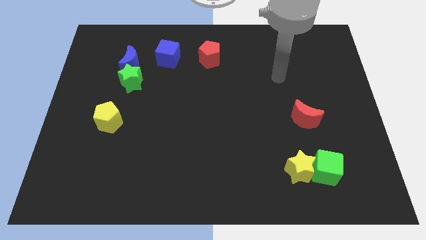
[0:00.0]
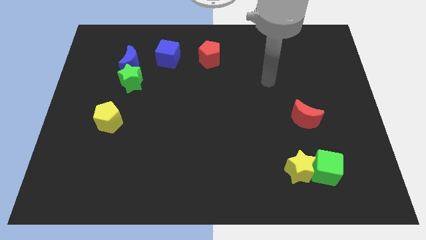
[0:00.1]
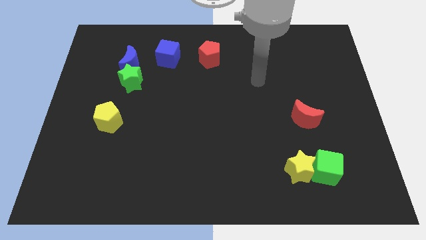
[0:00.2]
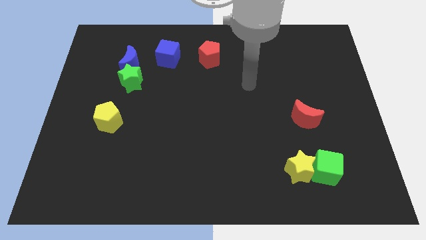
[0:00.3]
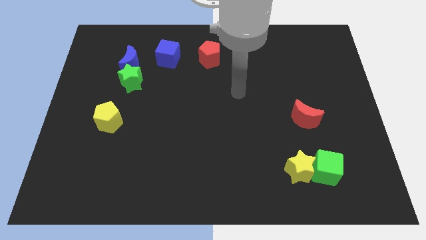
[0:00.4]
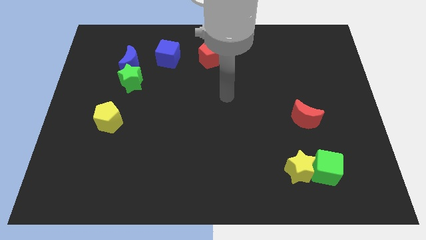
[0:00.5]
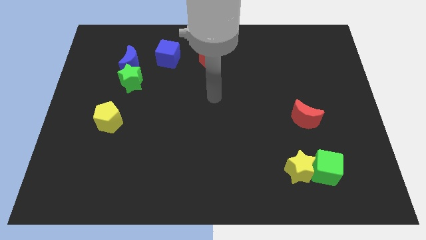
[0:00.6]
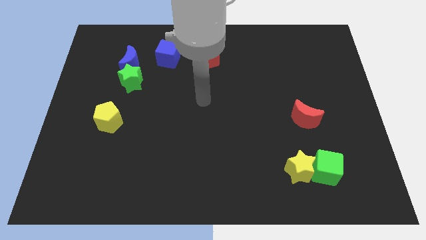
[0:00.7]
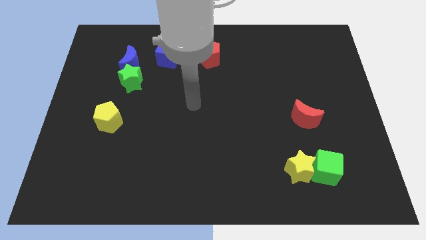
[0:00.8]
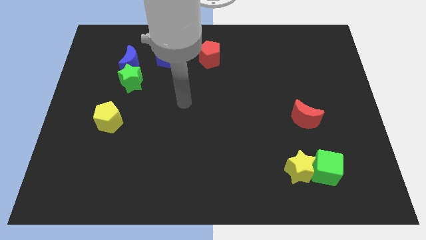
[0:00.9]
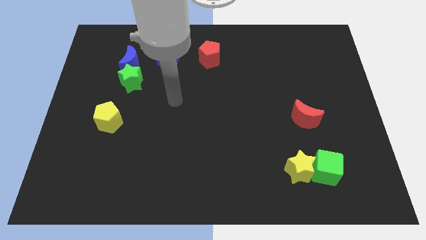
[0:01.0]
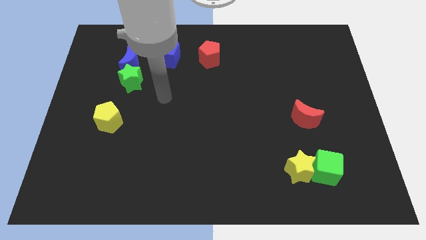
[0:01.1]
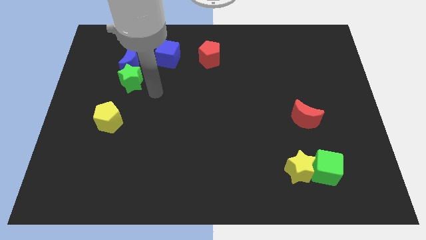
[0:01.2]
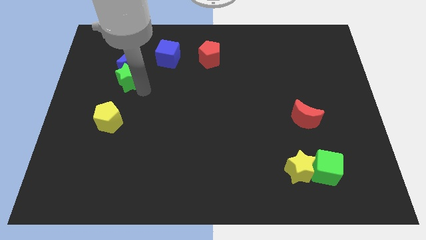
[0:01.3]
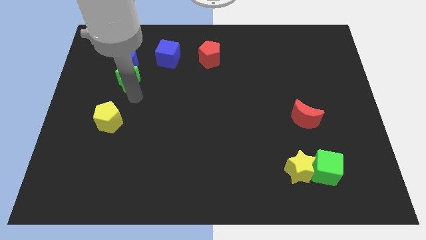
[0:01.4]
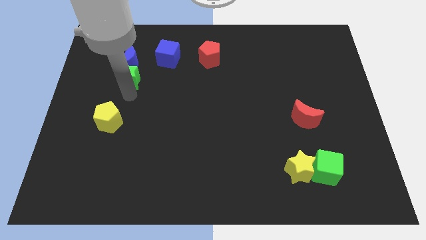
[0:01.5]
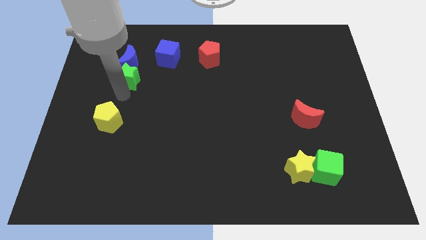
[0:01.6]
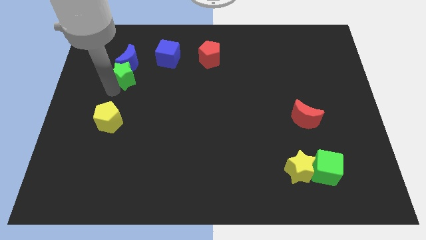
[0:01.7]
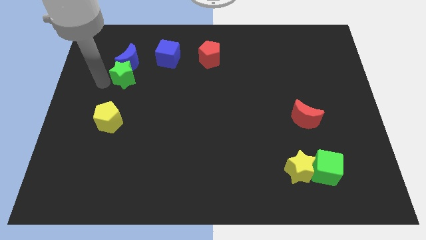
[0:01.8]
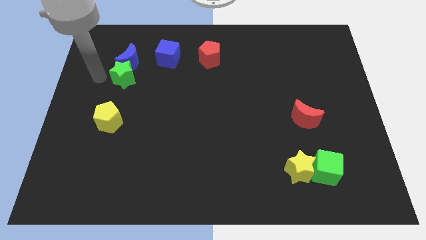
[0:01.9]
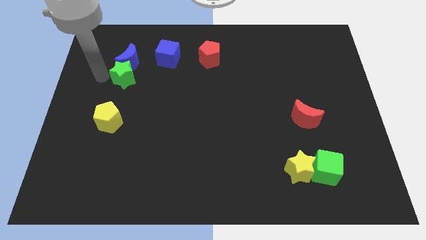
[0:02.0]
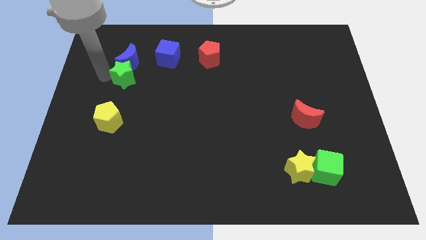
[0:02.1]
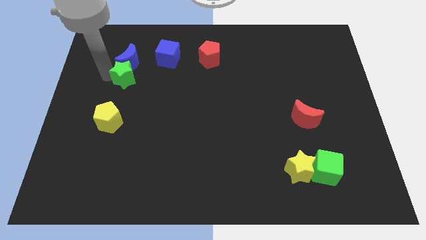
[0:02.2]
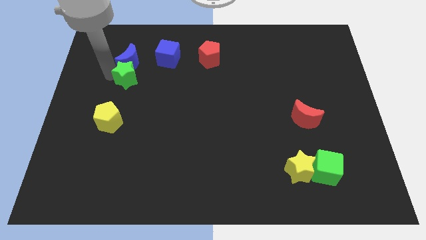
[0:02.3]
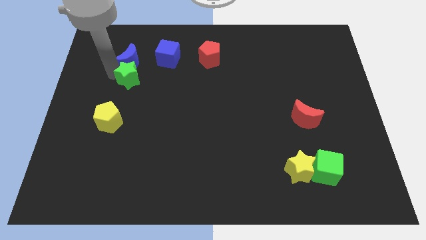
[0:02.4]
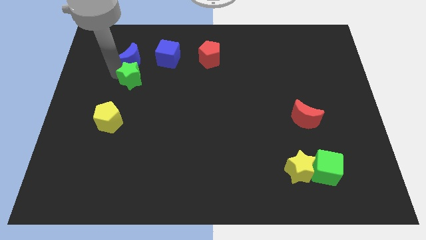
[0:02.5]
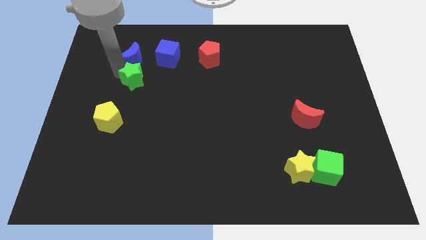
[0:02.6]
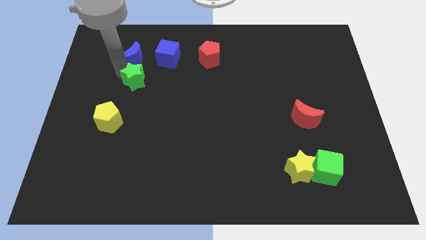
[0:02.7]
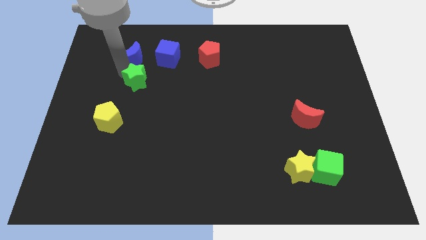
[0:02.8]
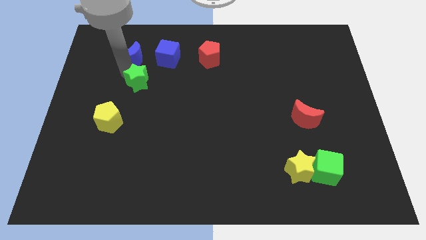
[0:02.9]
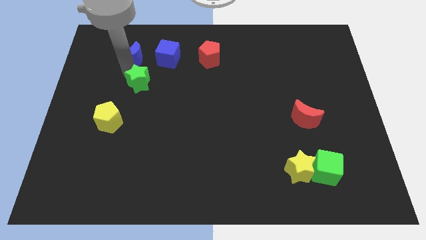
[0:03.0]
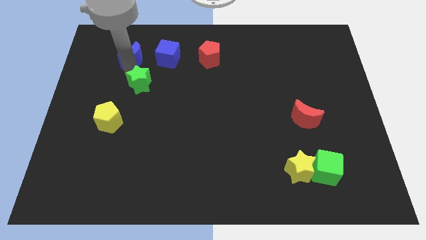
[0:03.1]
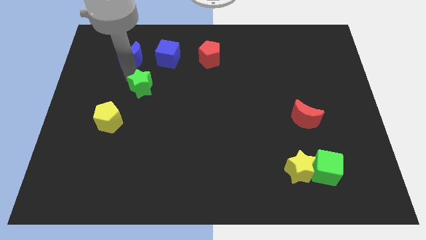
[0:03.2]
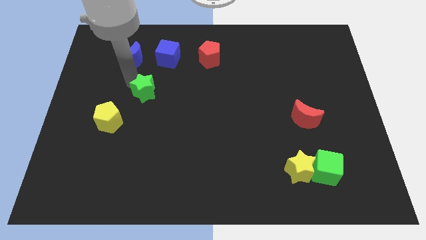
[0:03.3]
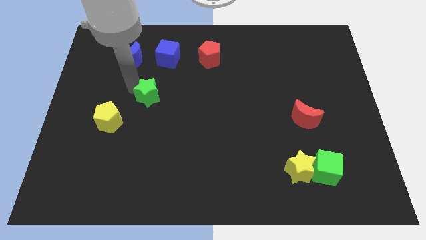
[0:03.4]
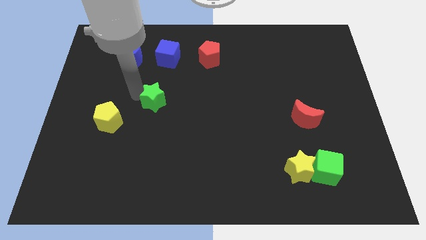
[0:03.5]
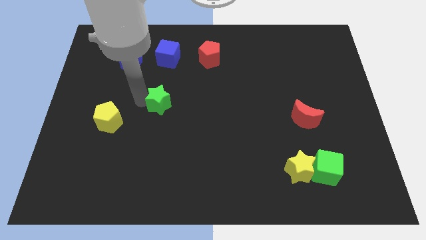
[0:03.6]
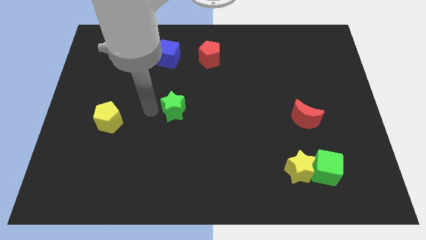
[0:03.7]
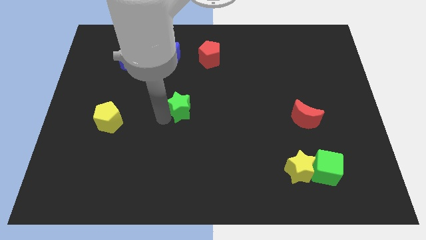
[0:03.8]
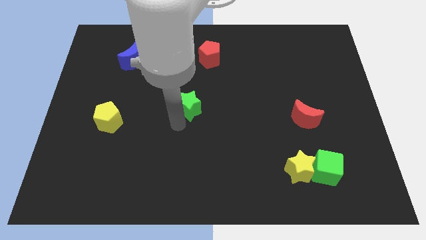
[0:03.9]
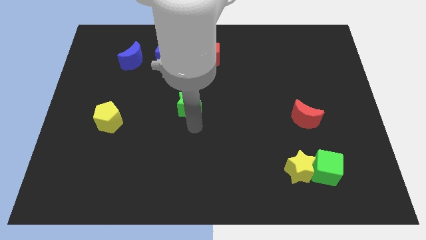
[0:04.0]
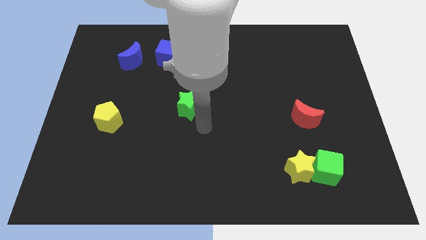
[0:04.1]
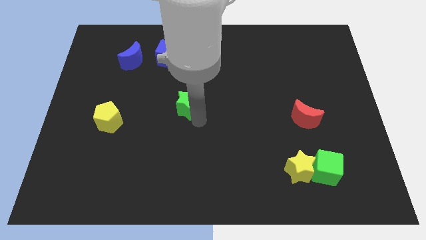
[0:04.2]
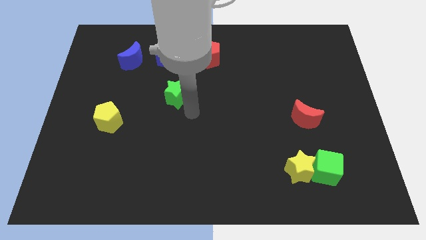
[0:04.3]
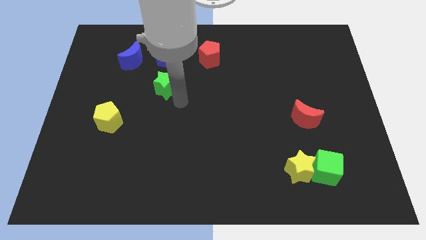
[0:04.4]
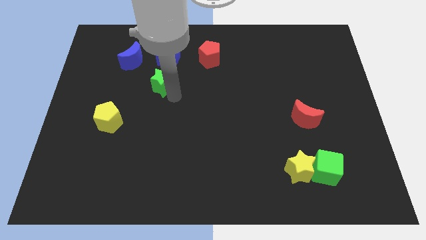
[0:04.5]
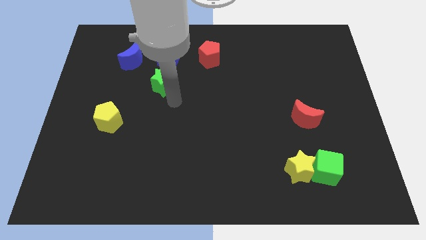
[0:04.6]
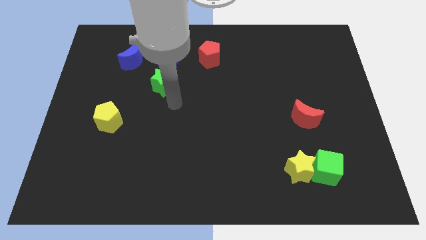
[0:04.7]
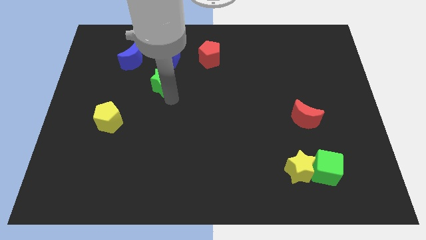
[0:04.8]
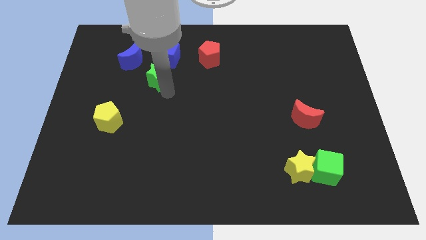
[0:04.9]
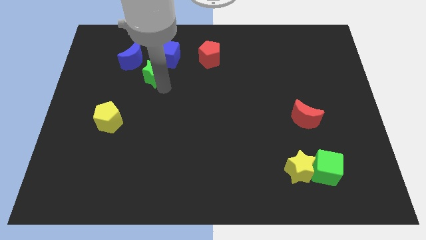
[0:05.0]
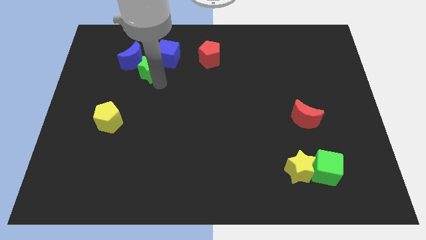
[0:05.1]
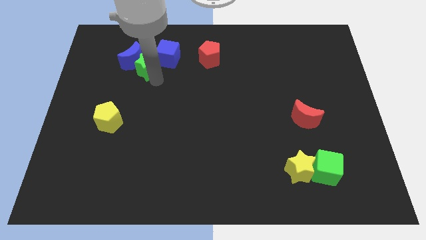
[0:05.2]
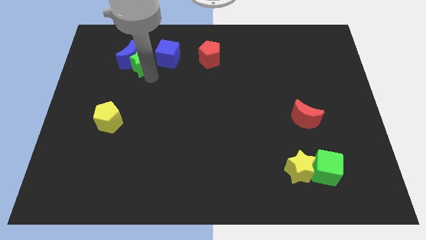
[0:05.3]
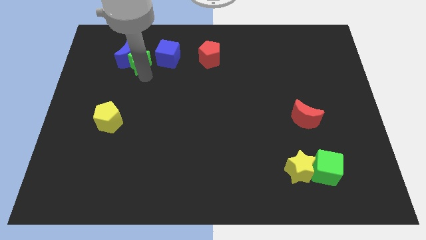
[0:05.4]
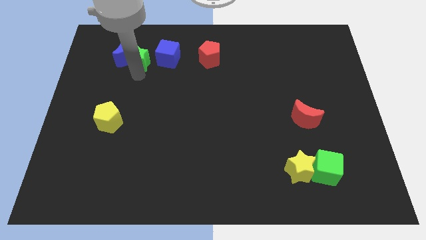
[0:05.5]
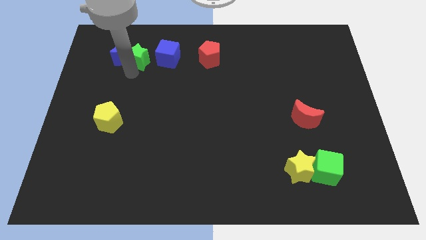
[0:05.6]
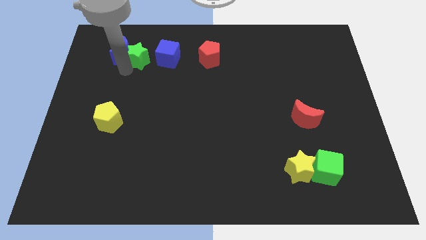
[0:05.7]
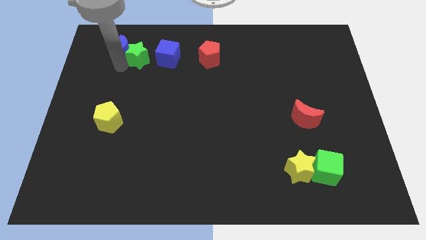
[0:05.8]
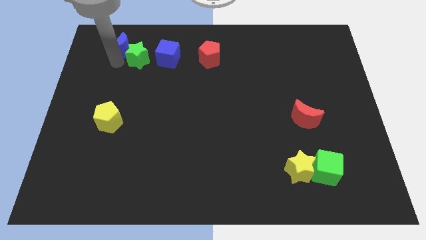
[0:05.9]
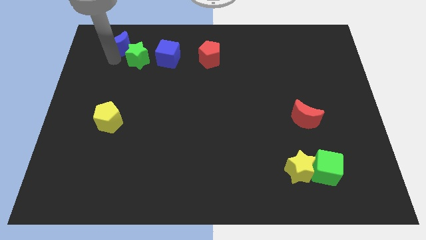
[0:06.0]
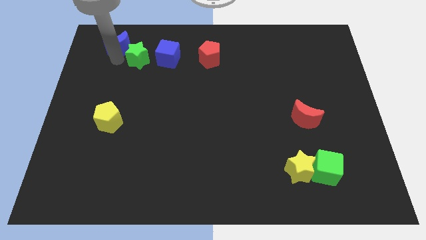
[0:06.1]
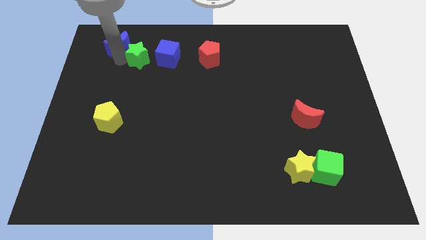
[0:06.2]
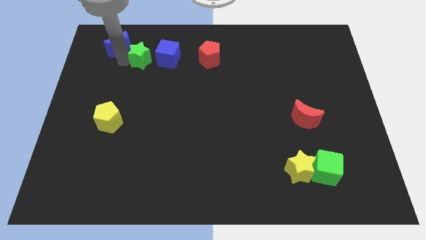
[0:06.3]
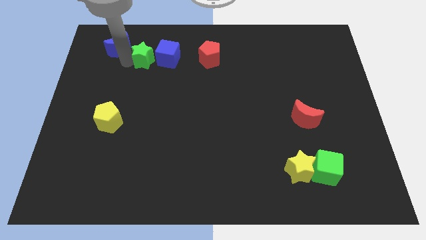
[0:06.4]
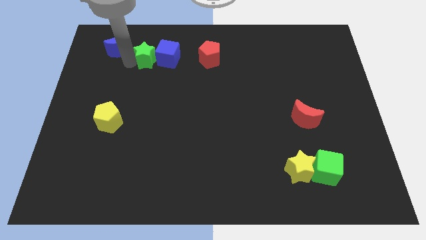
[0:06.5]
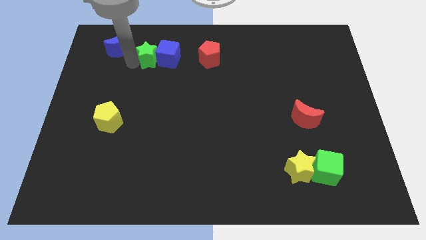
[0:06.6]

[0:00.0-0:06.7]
push the green star to the left side of the red pentagon
